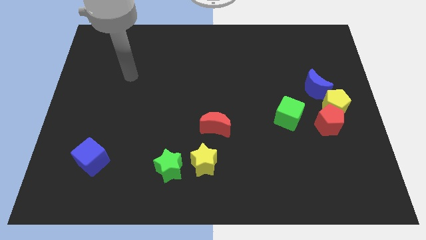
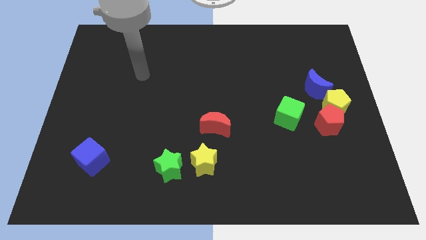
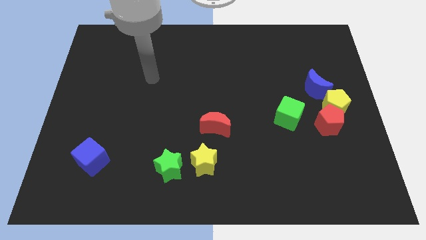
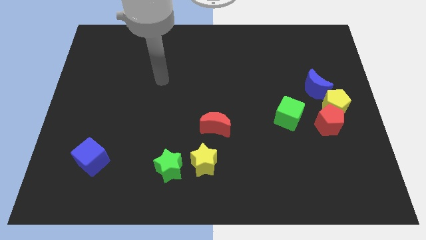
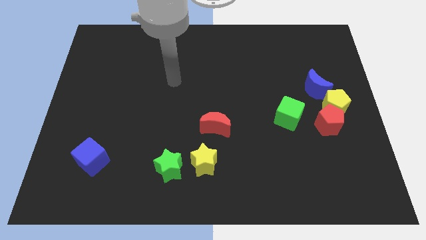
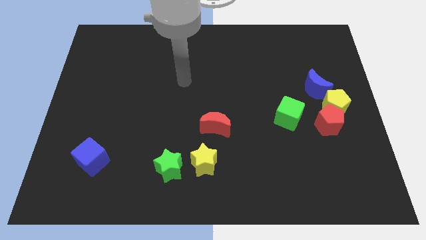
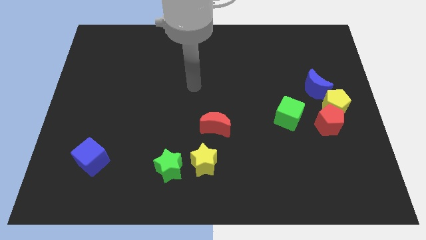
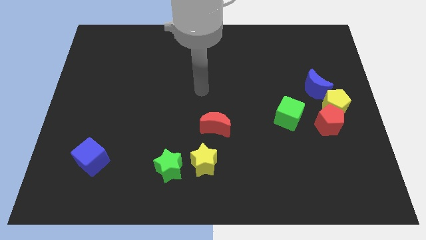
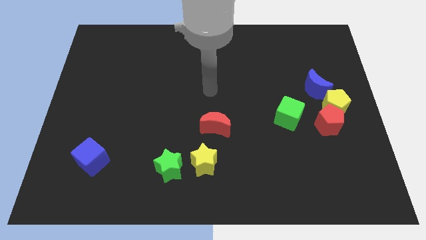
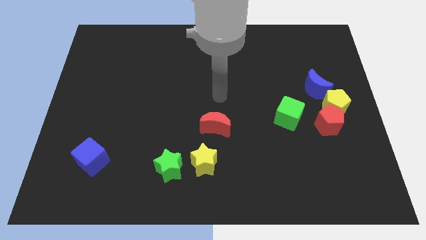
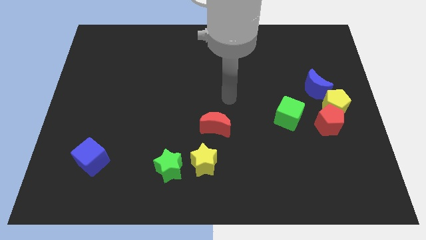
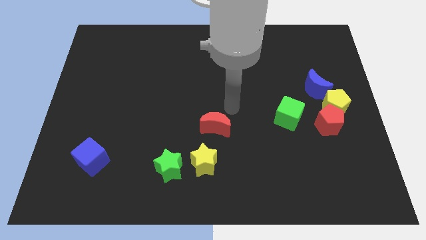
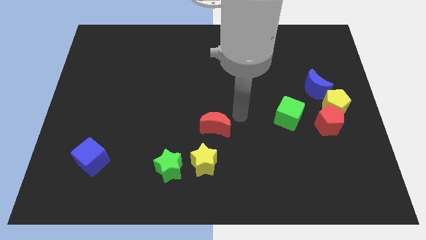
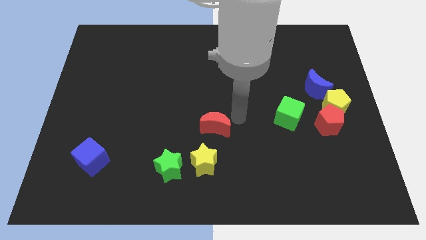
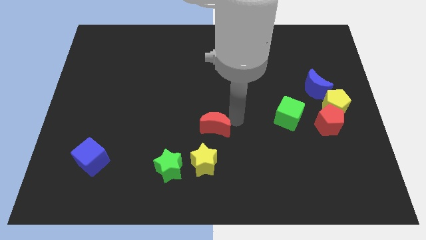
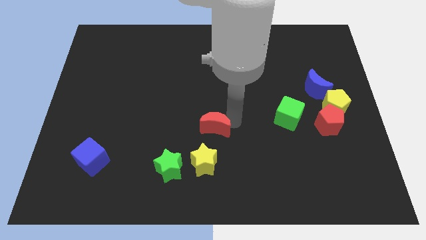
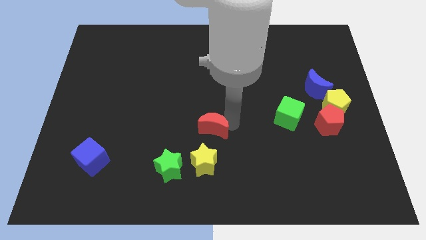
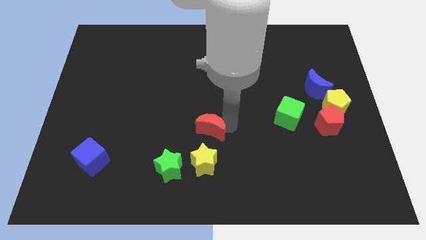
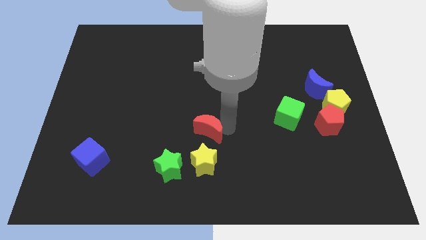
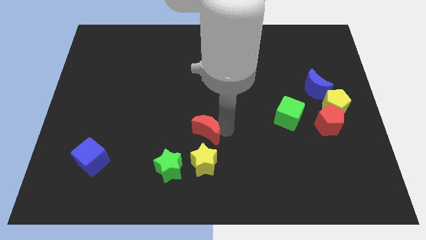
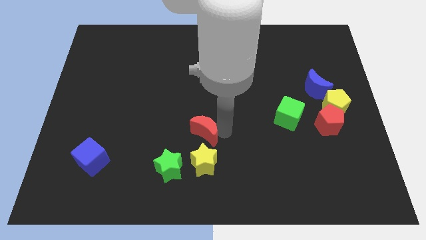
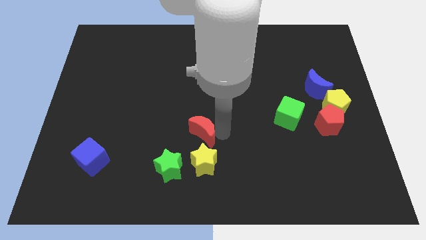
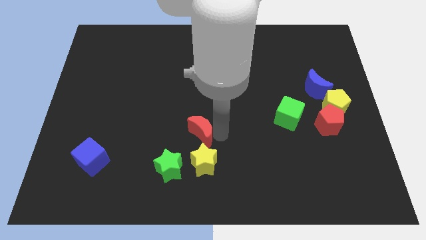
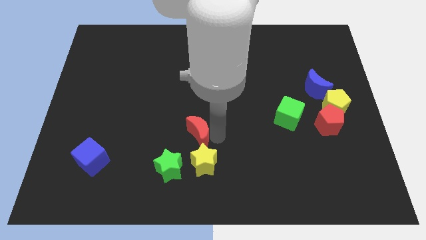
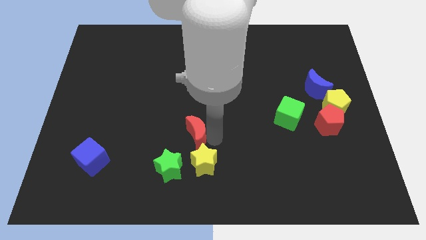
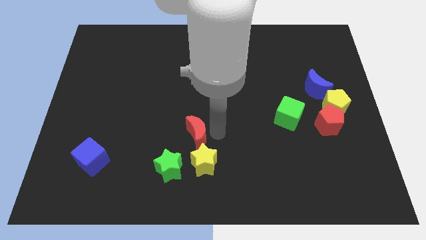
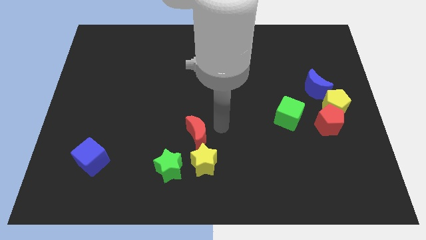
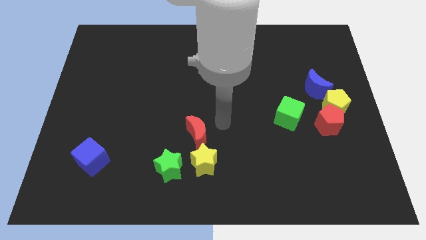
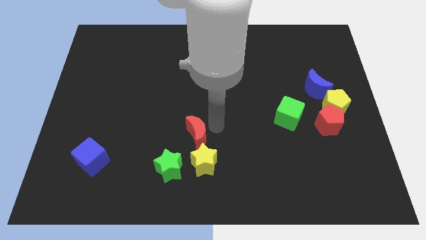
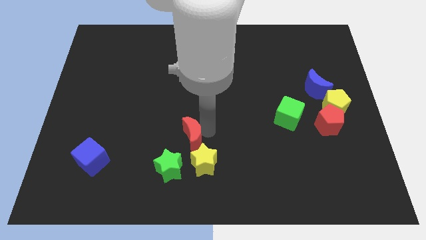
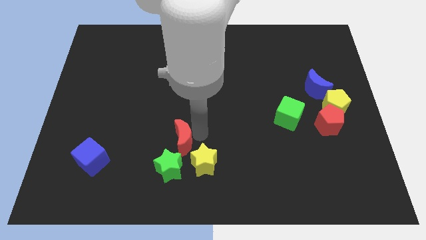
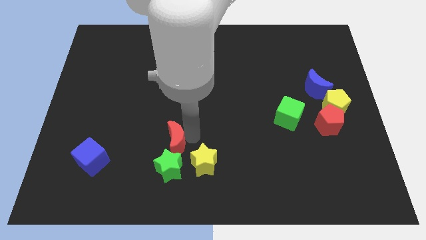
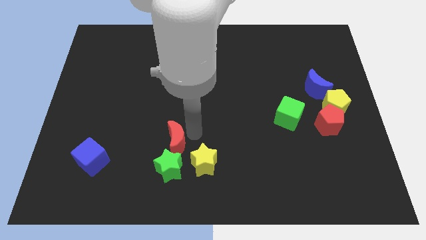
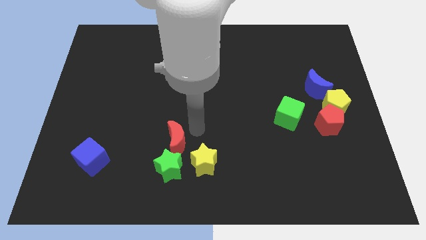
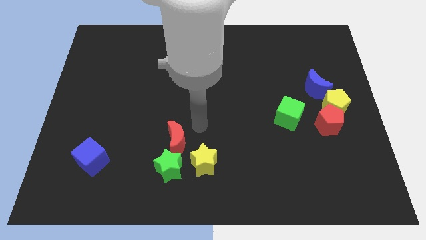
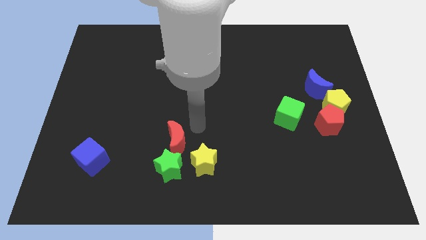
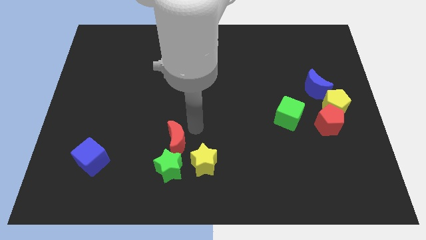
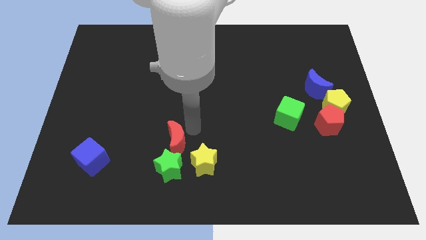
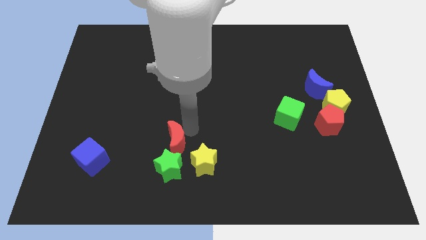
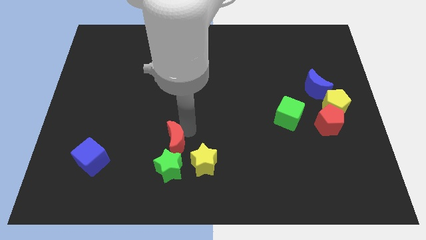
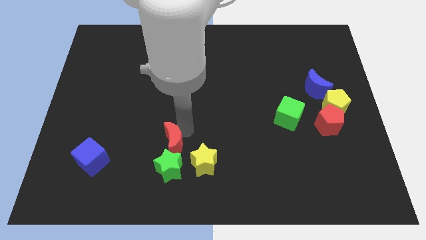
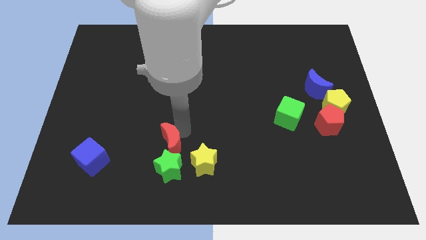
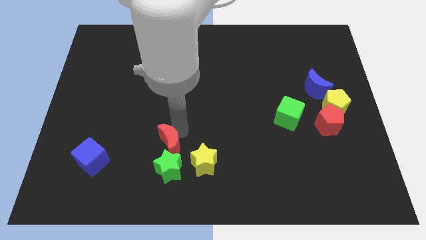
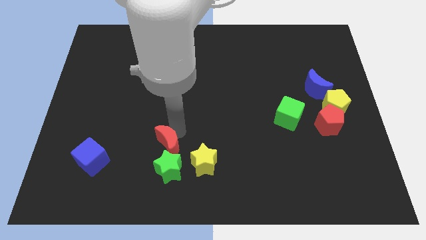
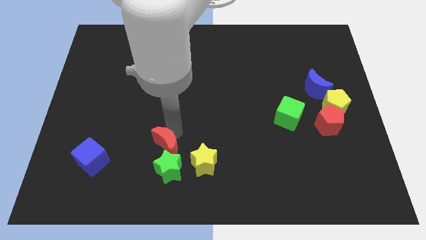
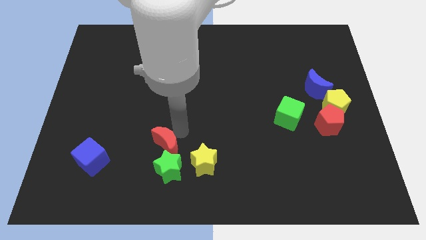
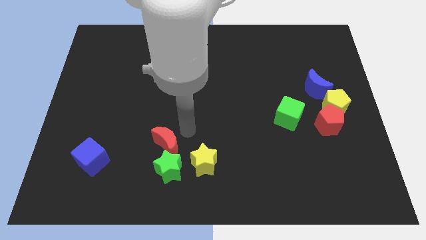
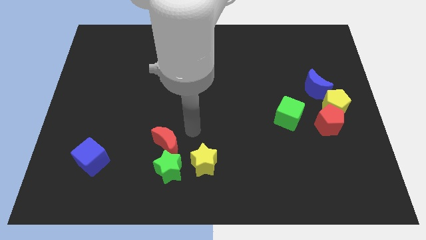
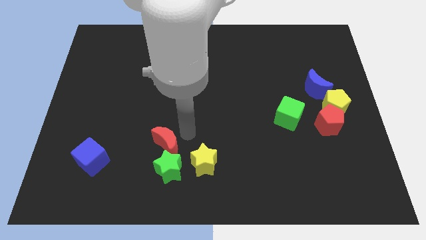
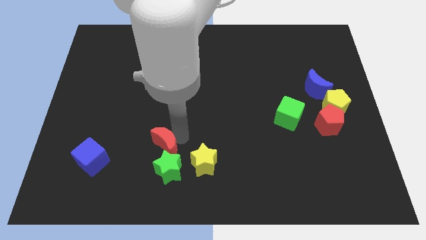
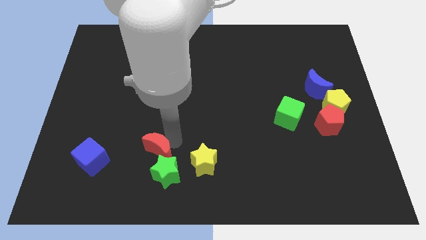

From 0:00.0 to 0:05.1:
put the red moon to the right side of the blue cube

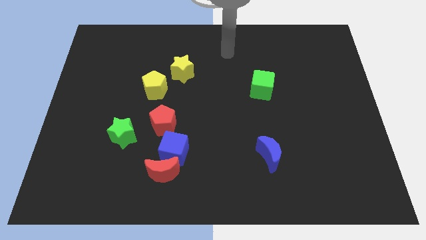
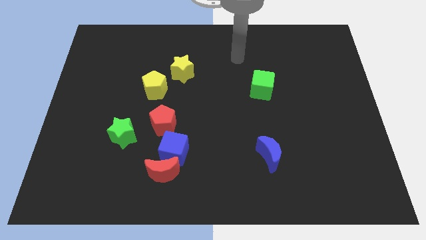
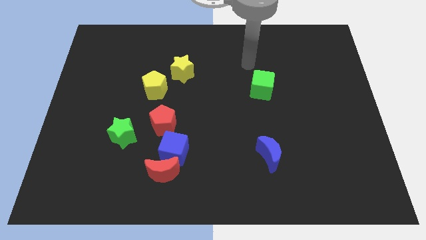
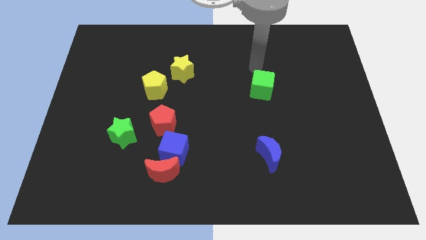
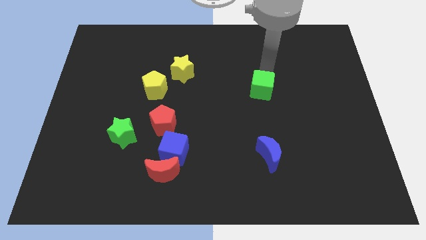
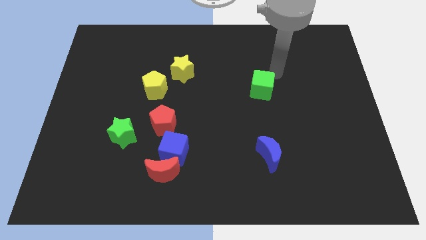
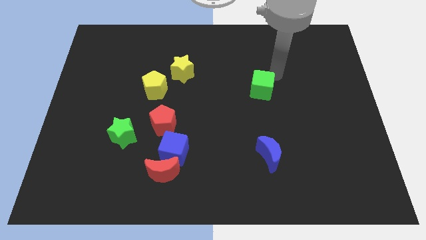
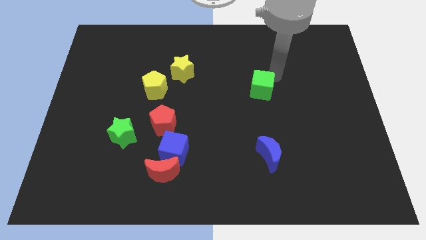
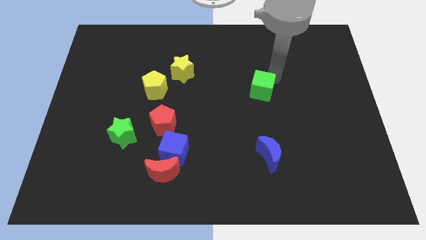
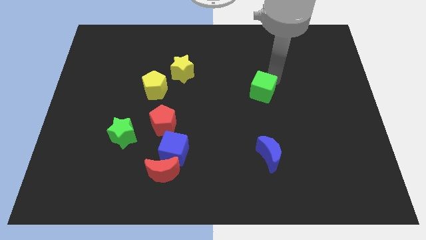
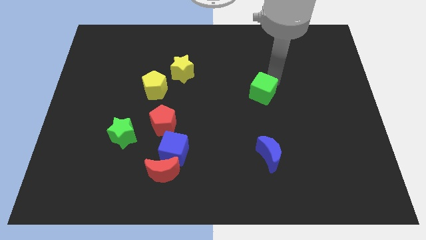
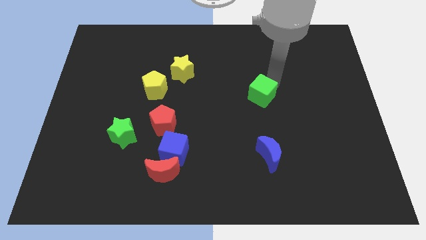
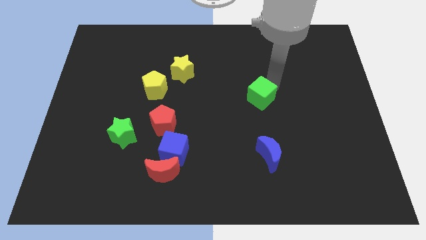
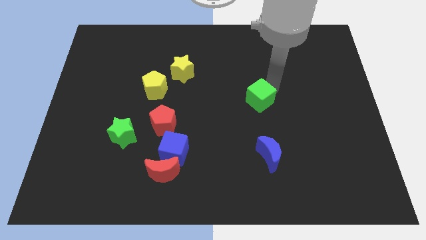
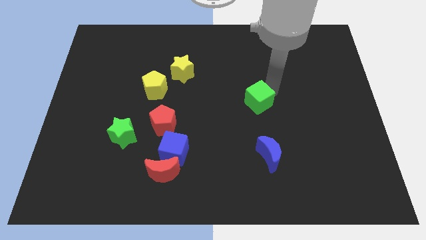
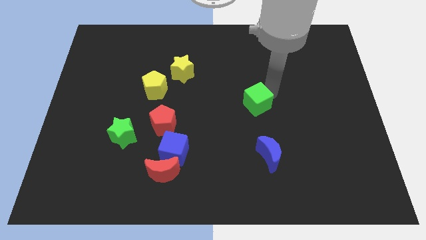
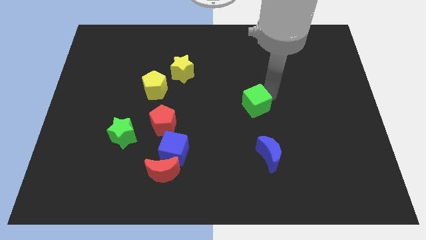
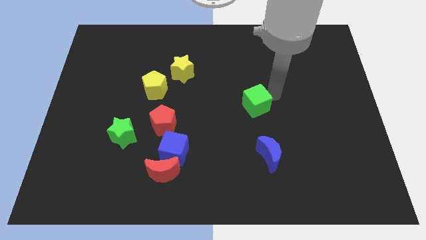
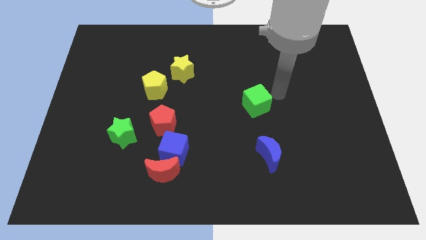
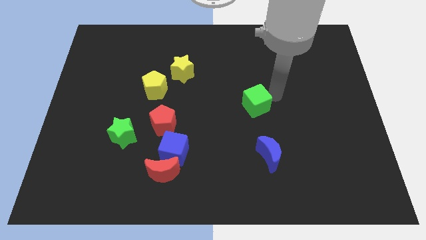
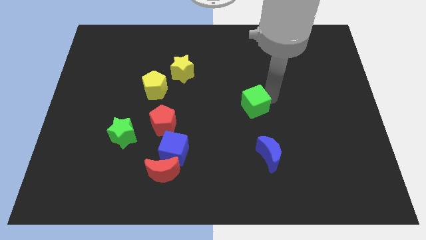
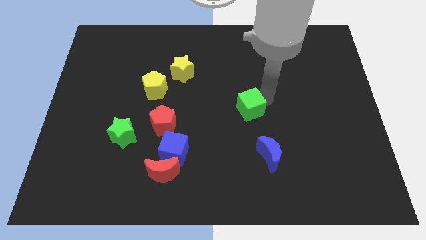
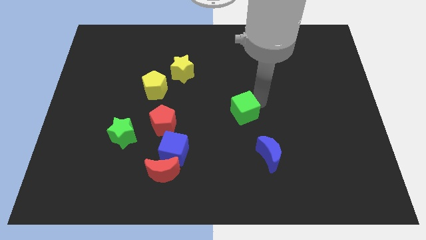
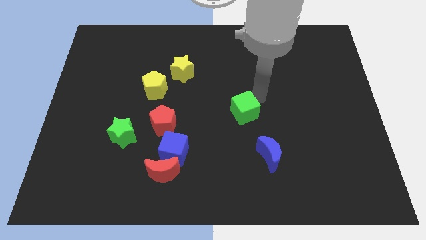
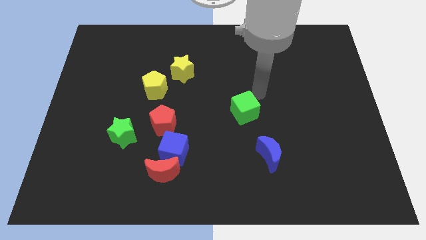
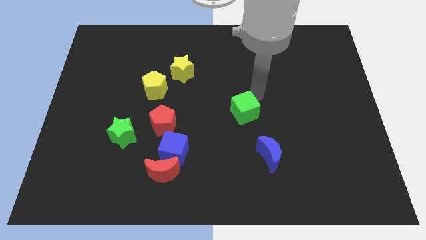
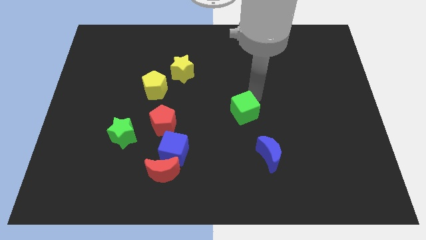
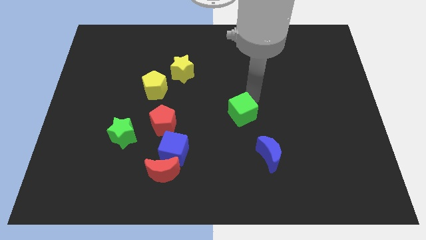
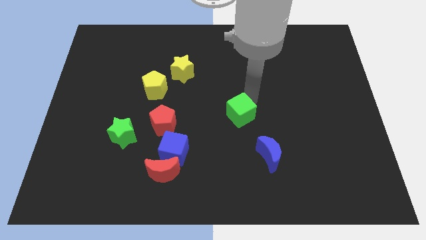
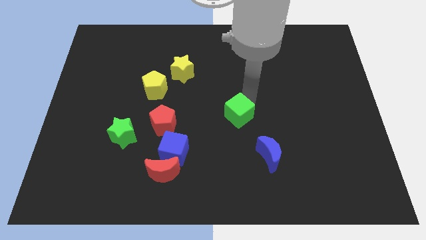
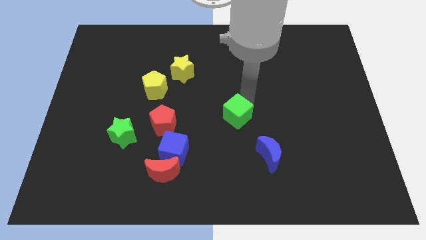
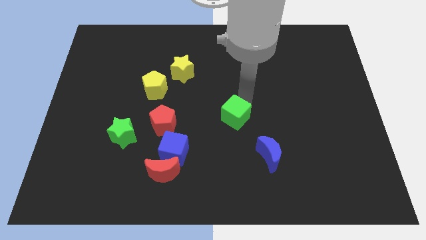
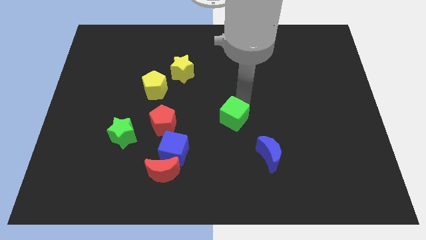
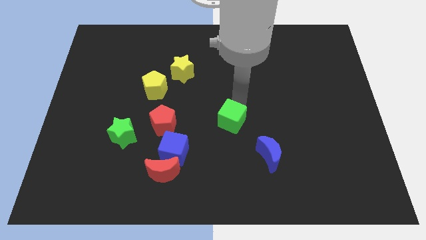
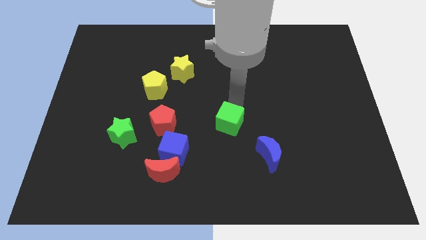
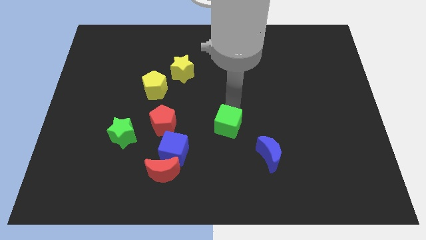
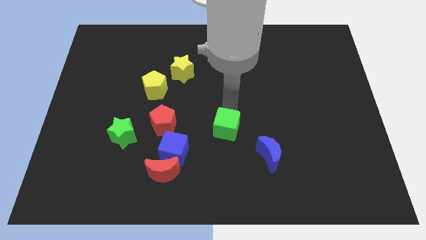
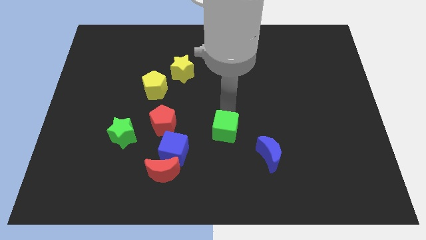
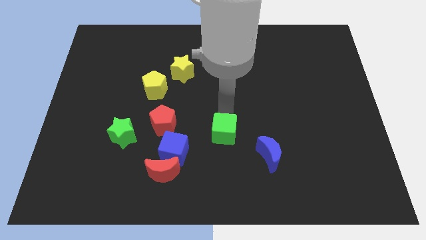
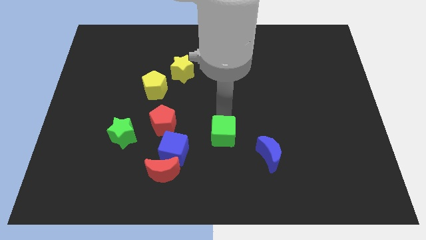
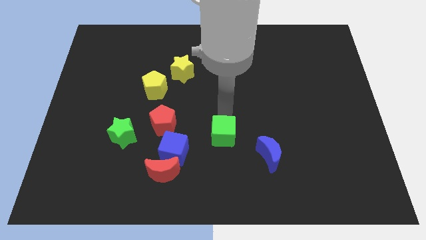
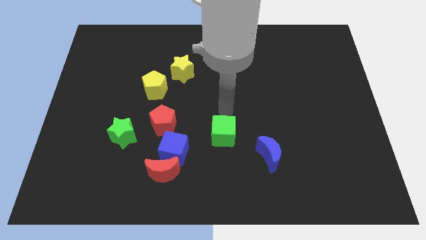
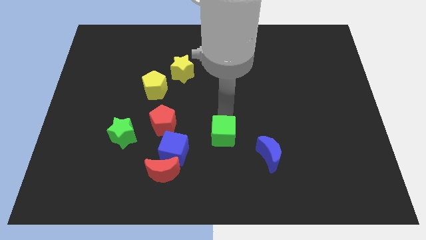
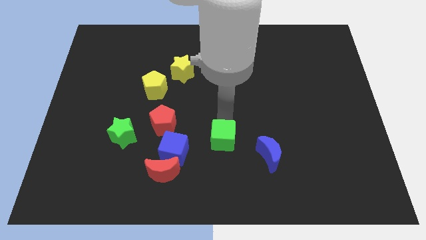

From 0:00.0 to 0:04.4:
move the green cube left of the blue moon
